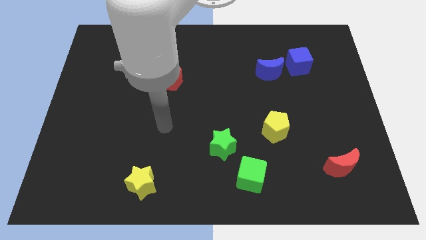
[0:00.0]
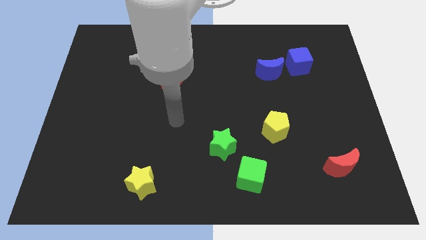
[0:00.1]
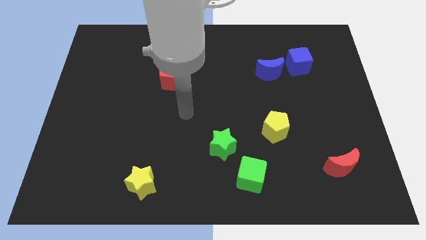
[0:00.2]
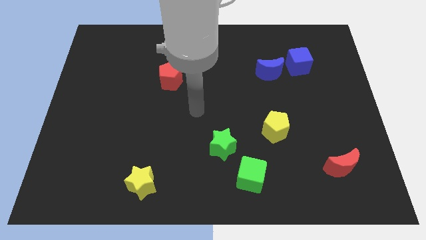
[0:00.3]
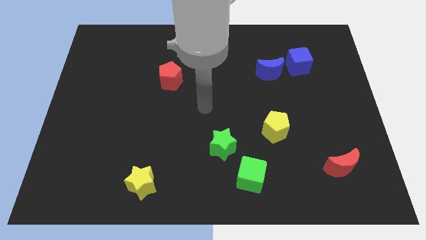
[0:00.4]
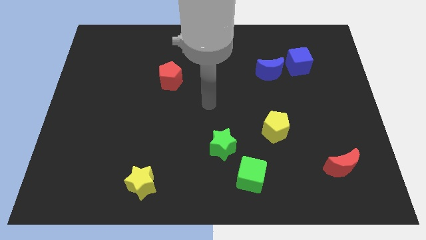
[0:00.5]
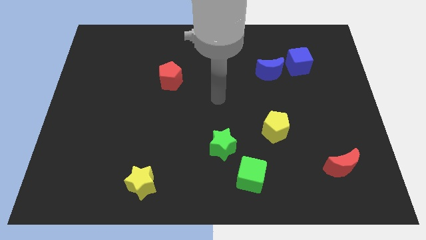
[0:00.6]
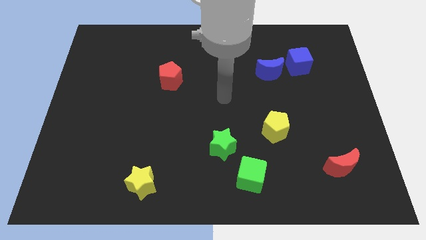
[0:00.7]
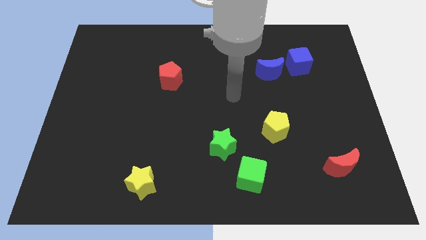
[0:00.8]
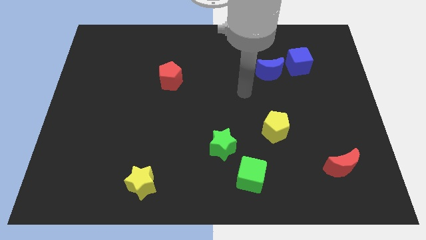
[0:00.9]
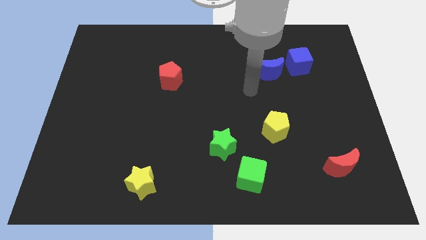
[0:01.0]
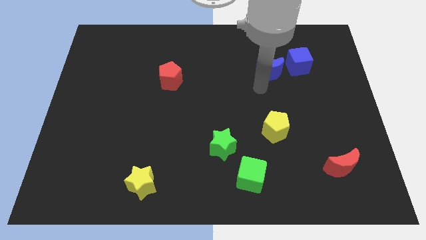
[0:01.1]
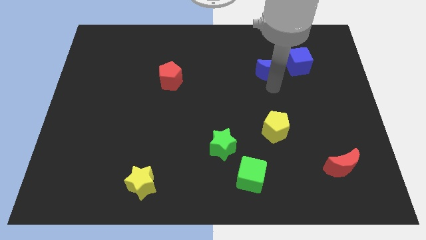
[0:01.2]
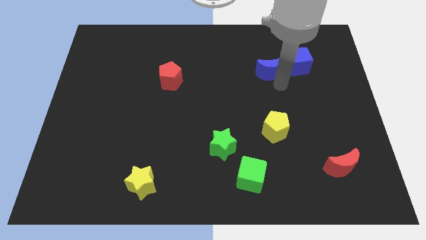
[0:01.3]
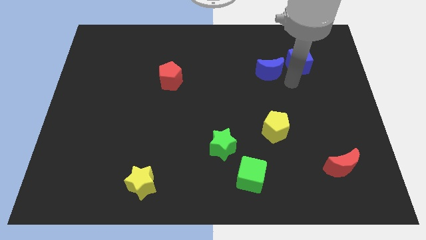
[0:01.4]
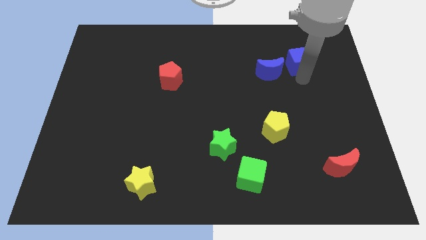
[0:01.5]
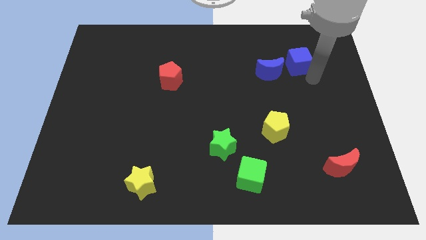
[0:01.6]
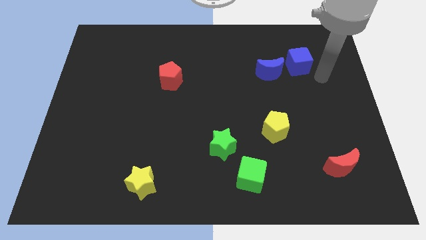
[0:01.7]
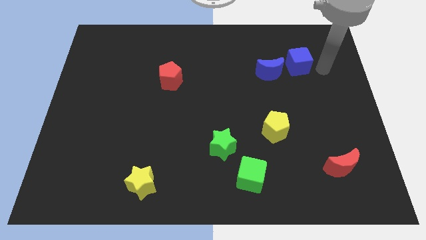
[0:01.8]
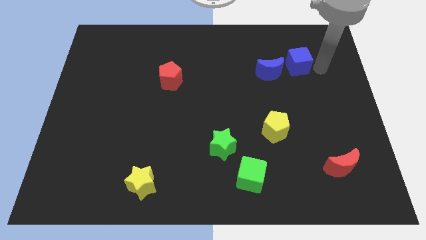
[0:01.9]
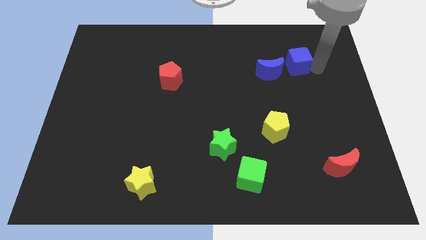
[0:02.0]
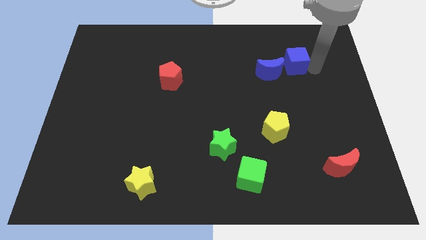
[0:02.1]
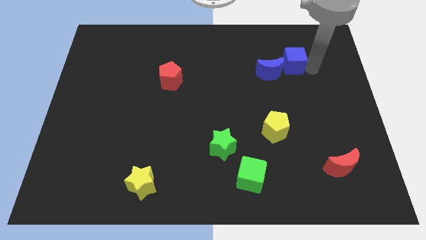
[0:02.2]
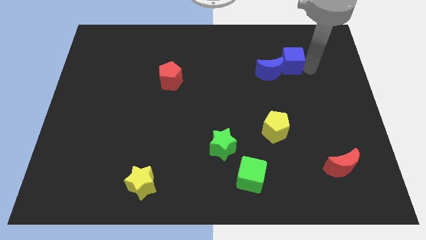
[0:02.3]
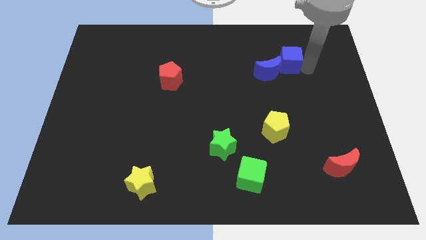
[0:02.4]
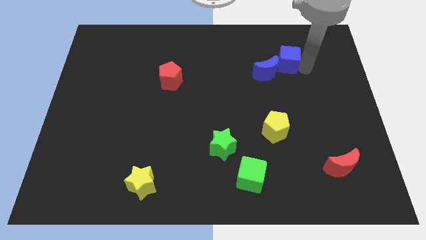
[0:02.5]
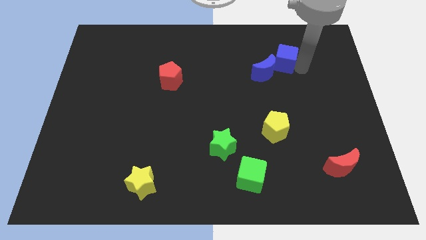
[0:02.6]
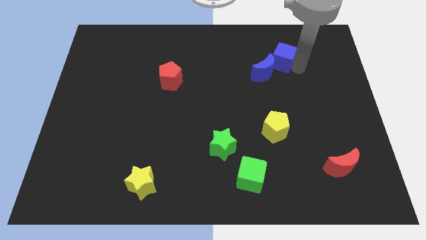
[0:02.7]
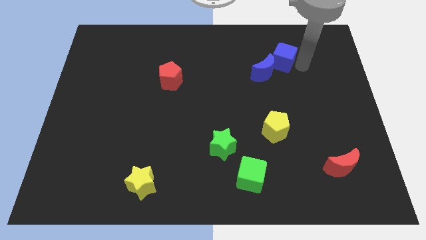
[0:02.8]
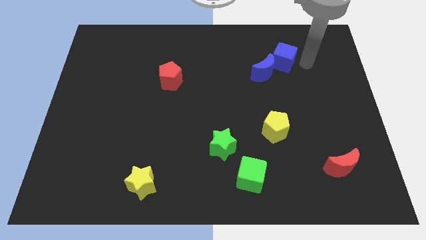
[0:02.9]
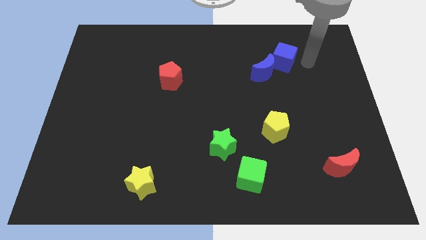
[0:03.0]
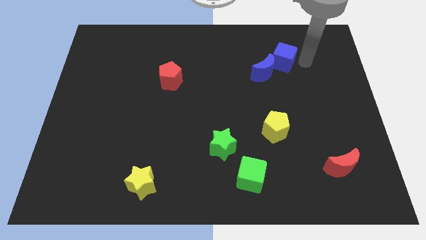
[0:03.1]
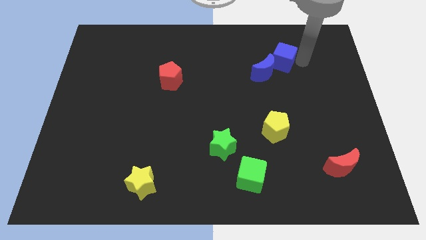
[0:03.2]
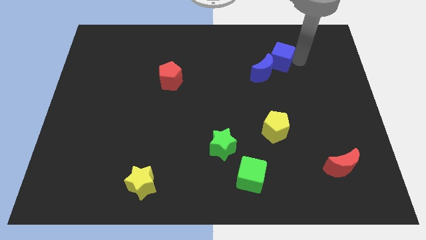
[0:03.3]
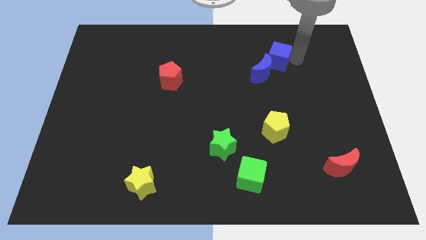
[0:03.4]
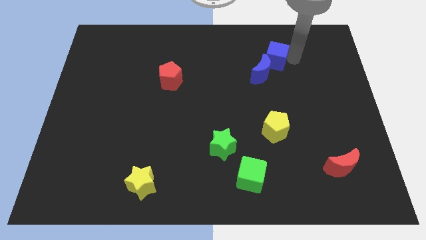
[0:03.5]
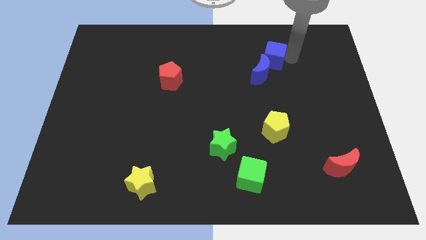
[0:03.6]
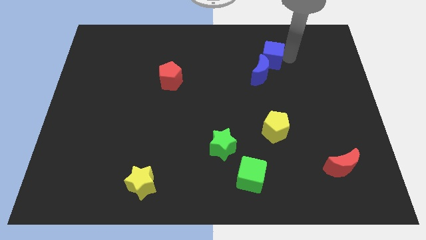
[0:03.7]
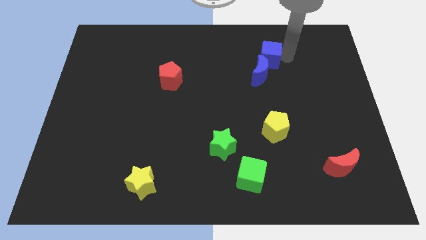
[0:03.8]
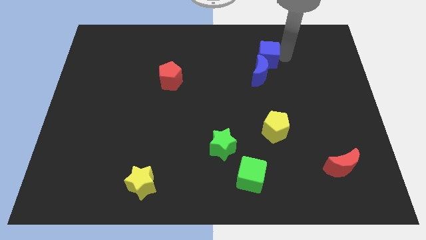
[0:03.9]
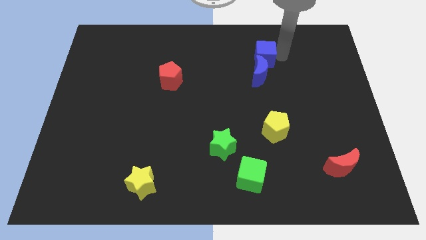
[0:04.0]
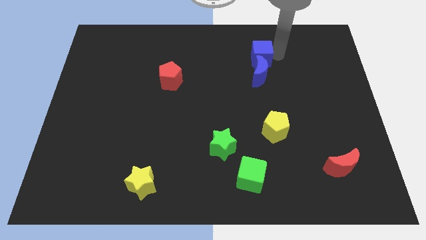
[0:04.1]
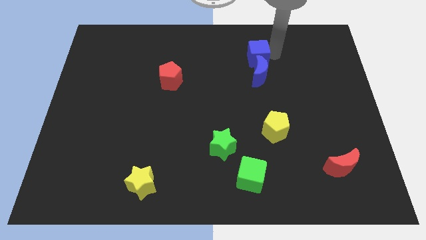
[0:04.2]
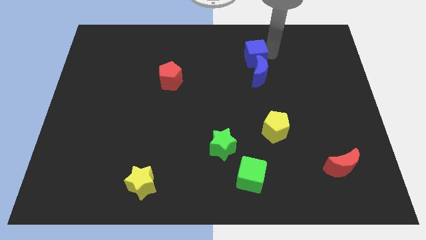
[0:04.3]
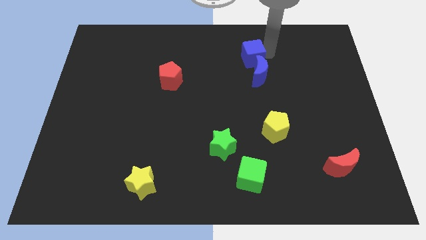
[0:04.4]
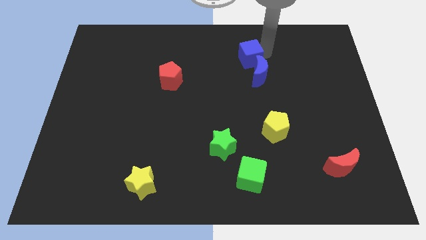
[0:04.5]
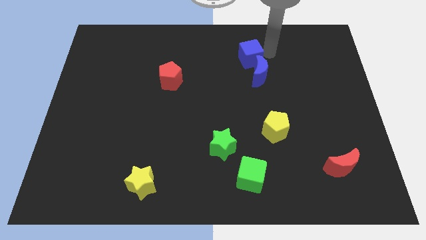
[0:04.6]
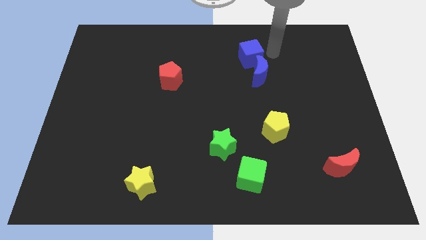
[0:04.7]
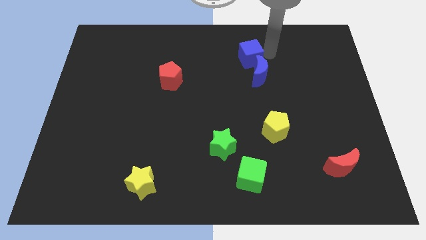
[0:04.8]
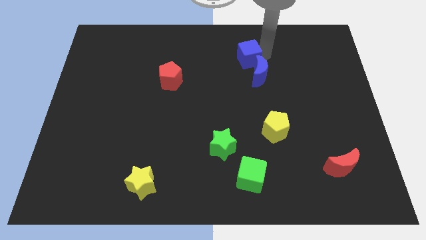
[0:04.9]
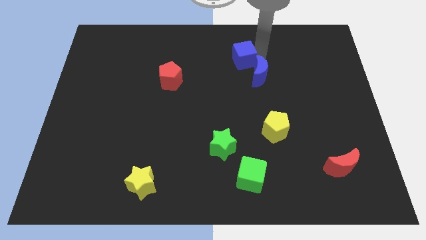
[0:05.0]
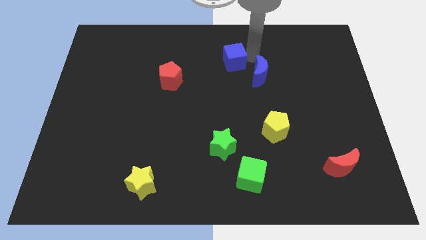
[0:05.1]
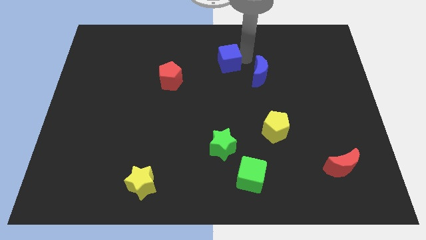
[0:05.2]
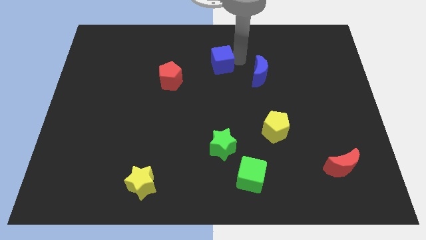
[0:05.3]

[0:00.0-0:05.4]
move the blue cube left

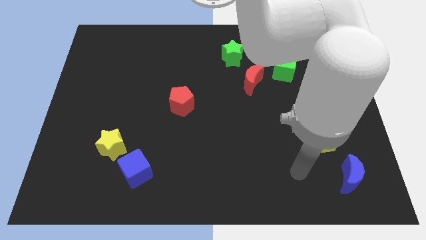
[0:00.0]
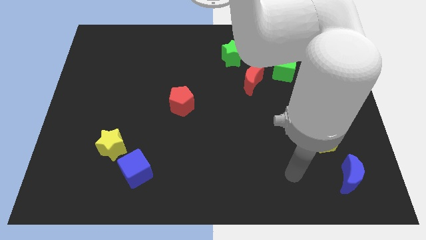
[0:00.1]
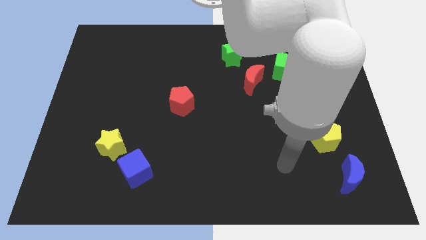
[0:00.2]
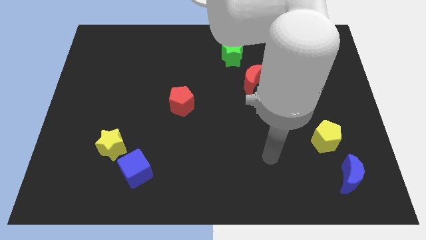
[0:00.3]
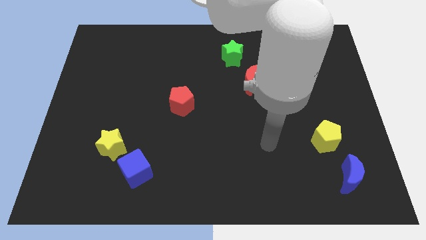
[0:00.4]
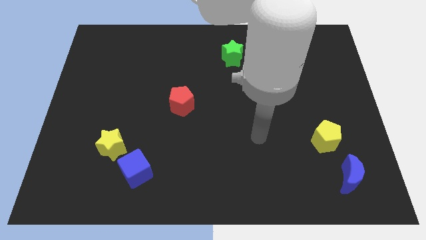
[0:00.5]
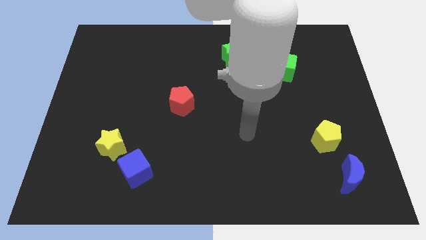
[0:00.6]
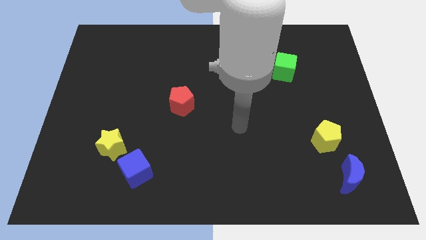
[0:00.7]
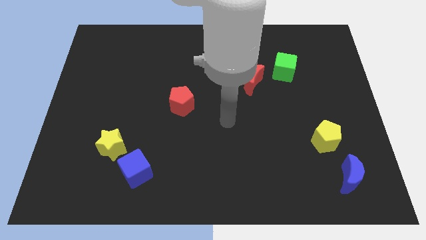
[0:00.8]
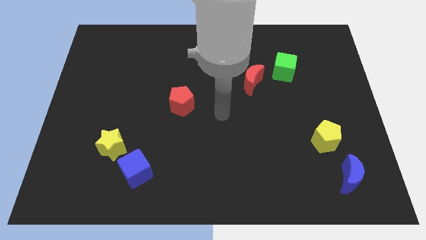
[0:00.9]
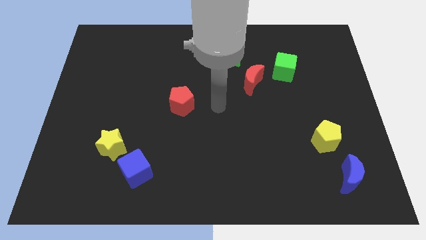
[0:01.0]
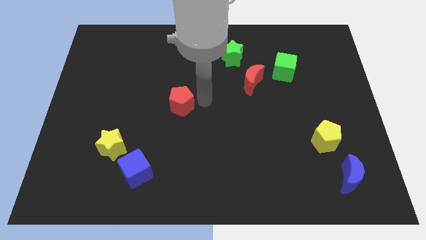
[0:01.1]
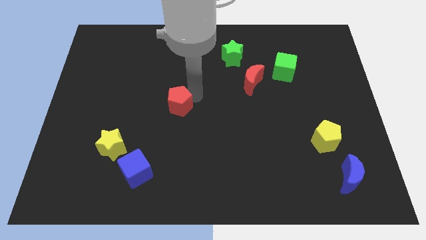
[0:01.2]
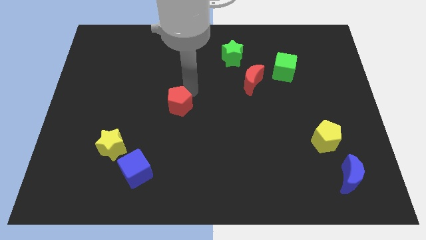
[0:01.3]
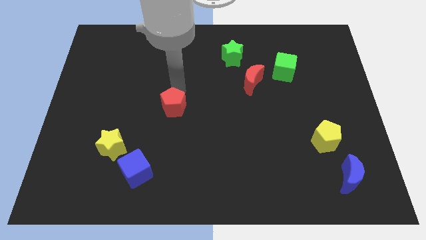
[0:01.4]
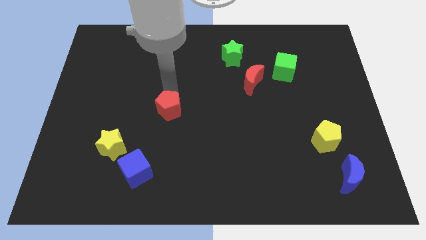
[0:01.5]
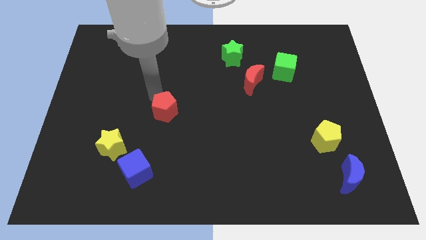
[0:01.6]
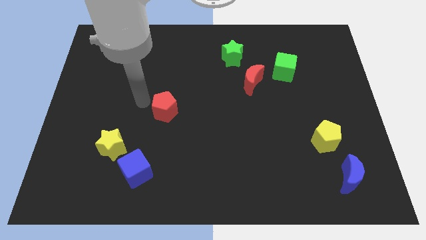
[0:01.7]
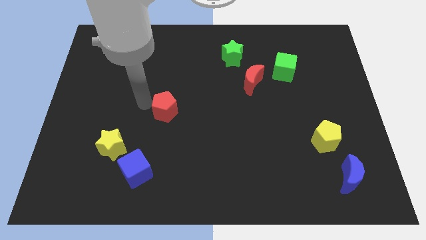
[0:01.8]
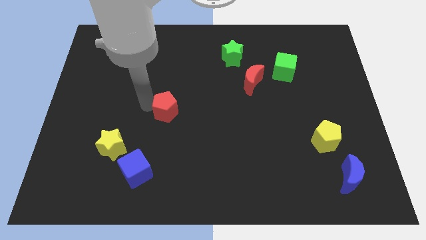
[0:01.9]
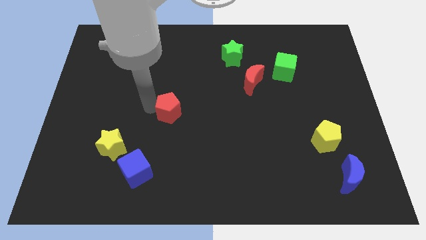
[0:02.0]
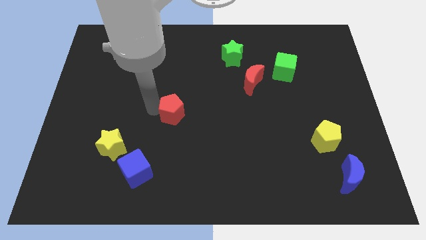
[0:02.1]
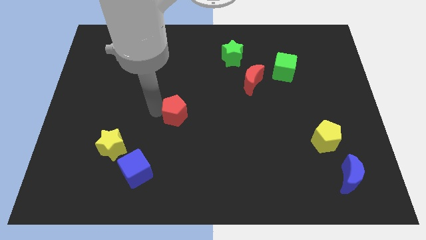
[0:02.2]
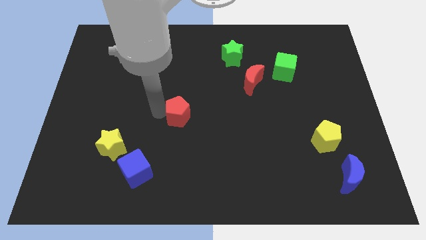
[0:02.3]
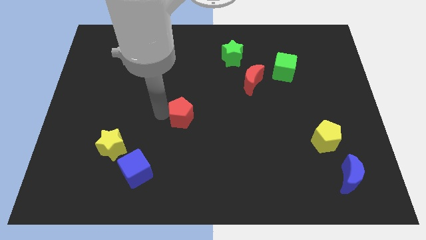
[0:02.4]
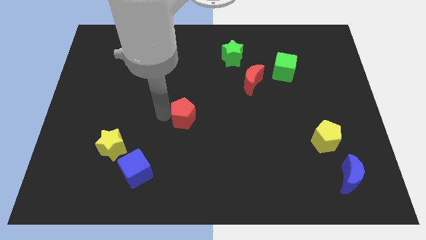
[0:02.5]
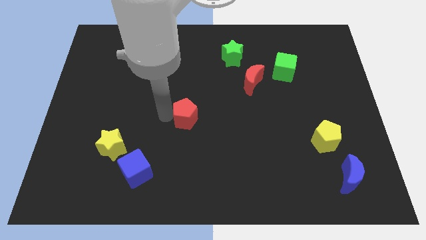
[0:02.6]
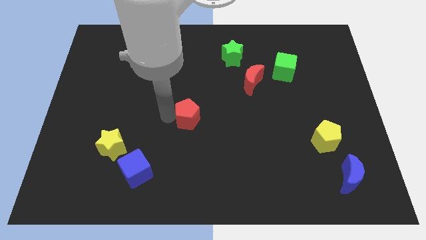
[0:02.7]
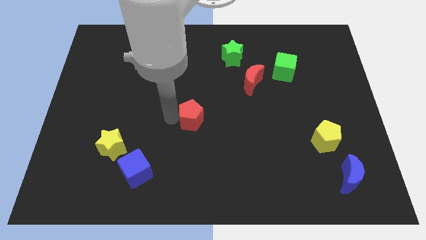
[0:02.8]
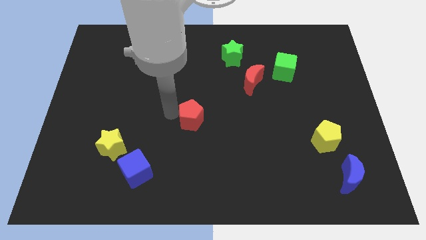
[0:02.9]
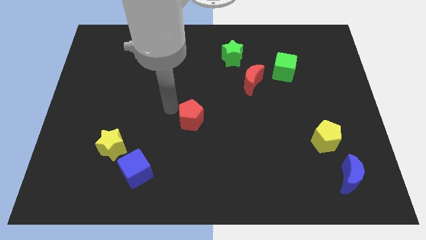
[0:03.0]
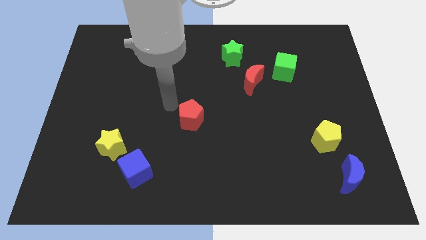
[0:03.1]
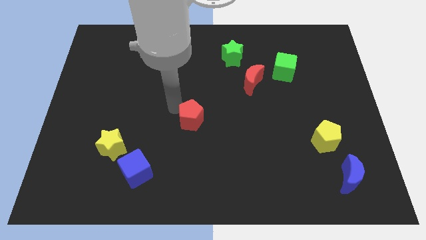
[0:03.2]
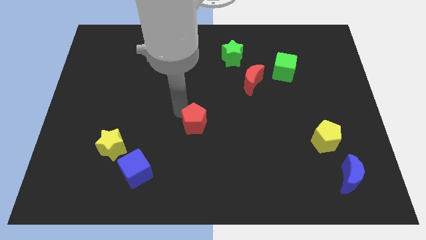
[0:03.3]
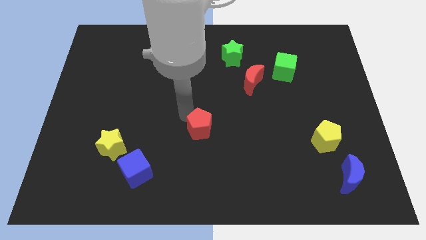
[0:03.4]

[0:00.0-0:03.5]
push the red pentagon down and then right a bit
